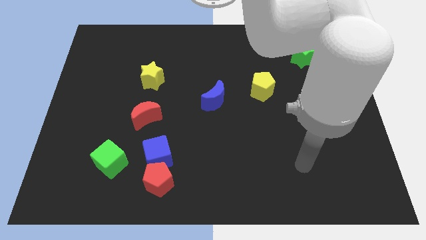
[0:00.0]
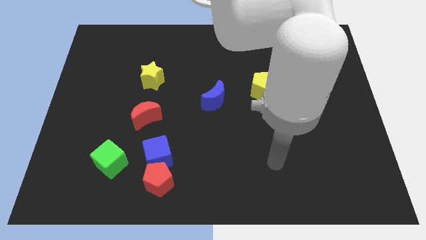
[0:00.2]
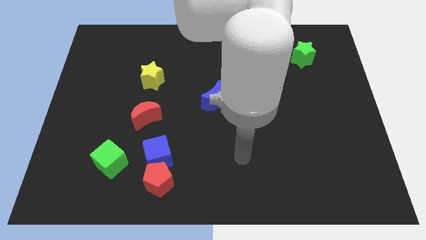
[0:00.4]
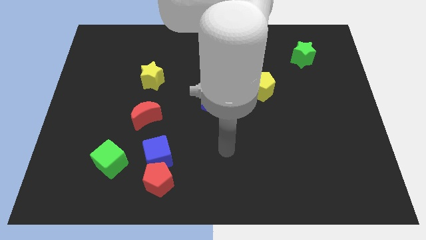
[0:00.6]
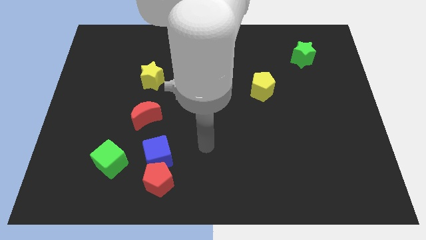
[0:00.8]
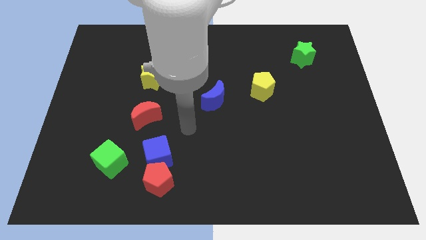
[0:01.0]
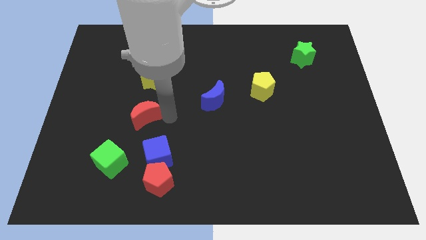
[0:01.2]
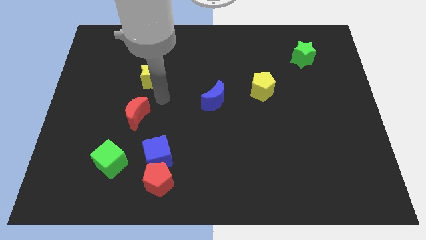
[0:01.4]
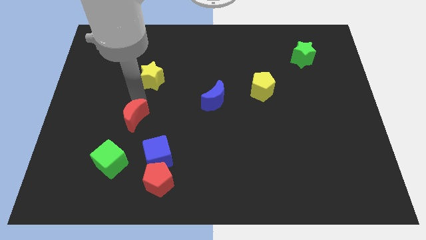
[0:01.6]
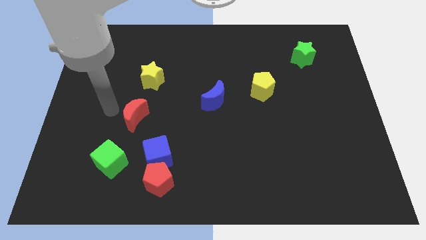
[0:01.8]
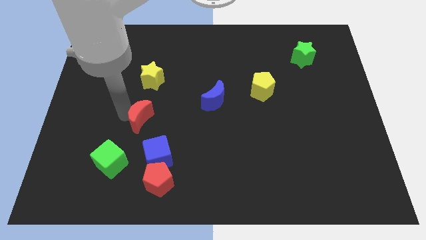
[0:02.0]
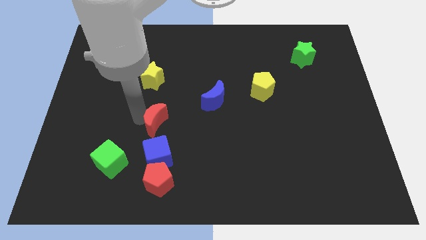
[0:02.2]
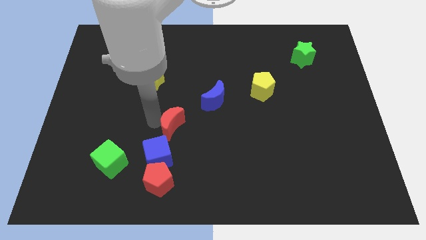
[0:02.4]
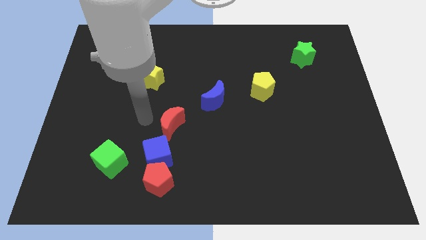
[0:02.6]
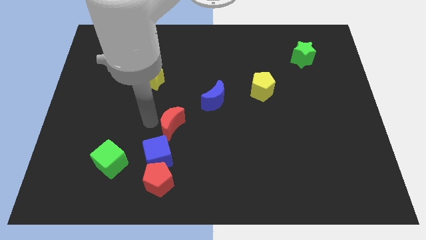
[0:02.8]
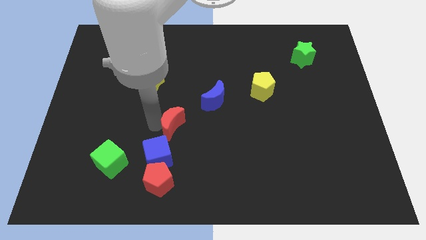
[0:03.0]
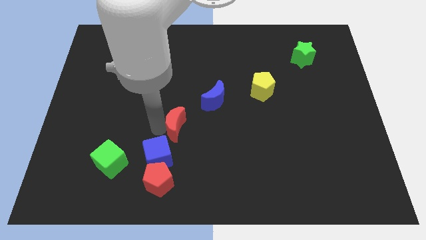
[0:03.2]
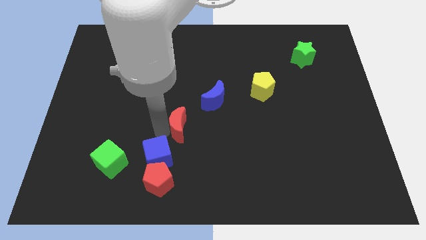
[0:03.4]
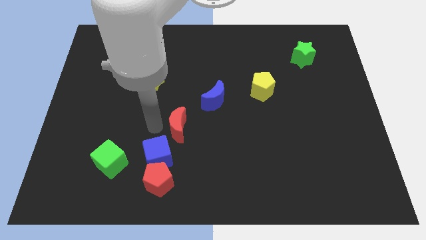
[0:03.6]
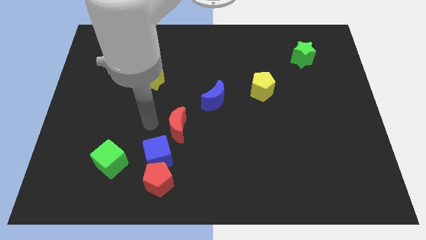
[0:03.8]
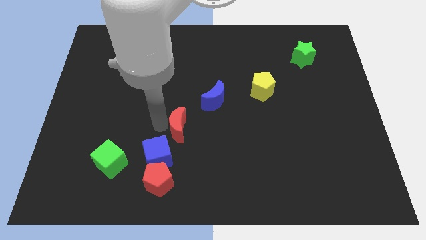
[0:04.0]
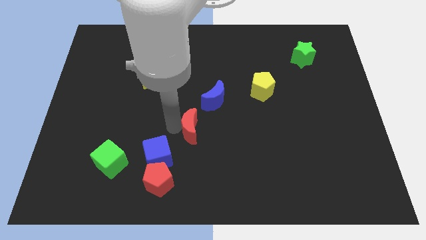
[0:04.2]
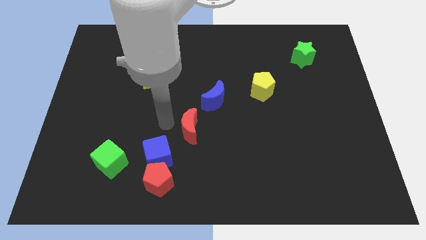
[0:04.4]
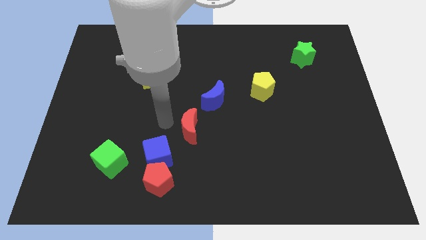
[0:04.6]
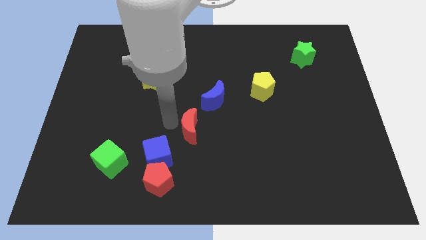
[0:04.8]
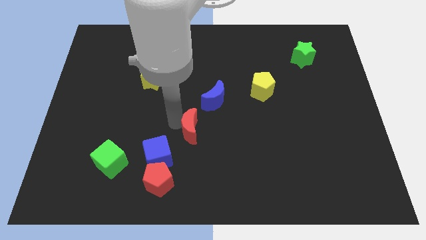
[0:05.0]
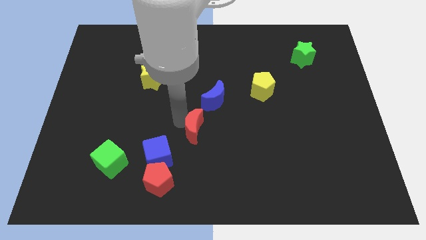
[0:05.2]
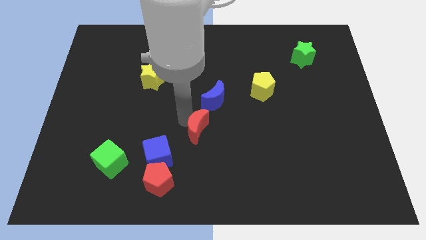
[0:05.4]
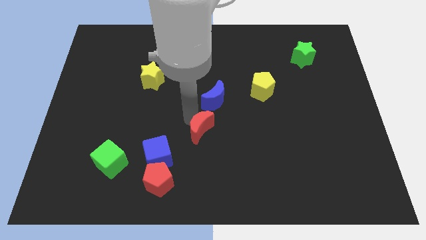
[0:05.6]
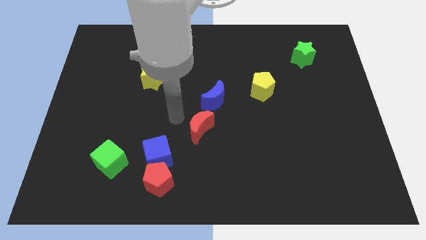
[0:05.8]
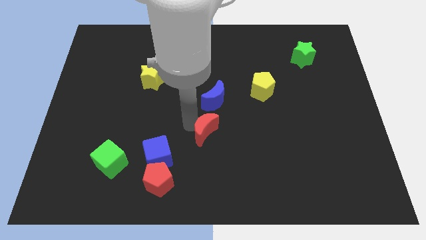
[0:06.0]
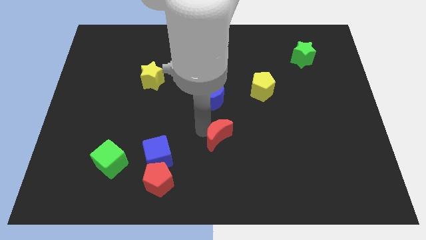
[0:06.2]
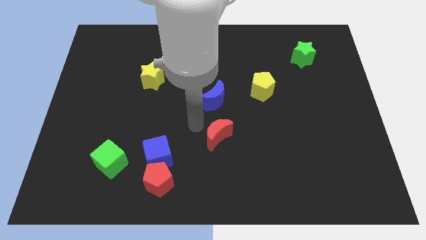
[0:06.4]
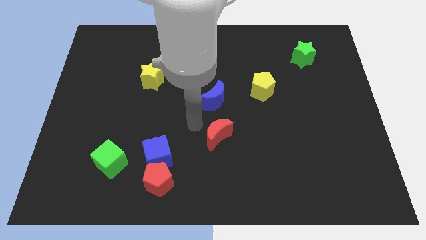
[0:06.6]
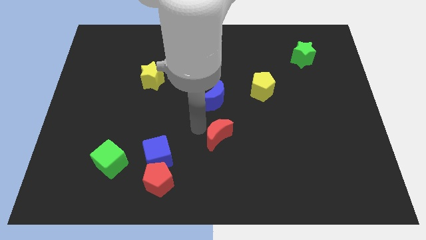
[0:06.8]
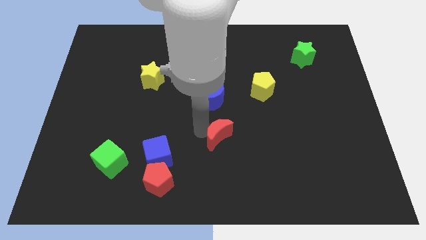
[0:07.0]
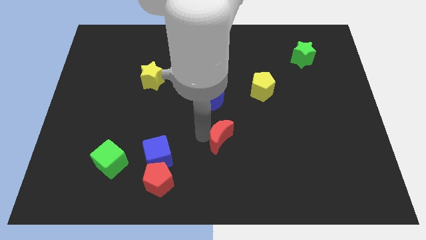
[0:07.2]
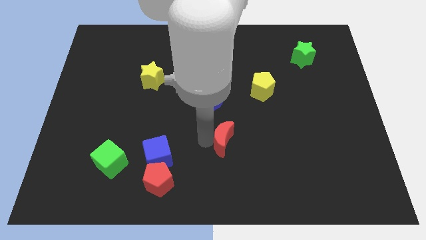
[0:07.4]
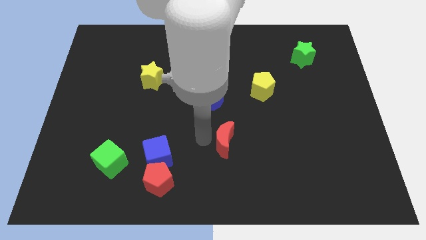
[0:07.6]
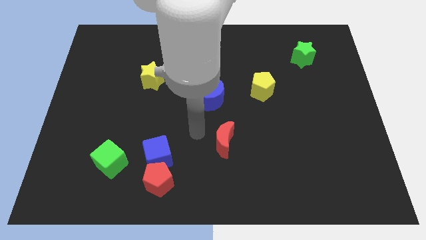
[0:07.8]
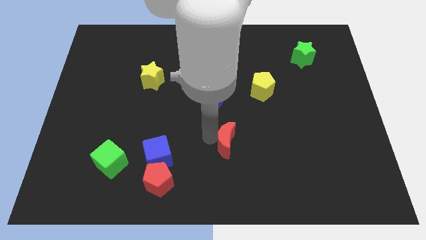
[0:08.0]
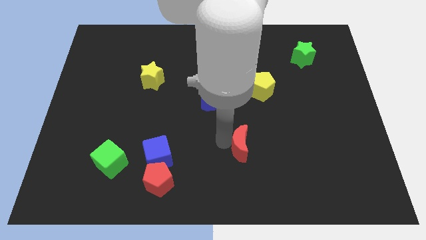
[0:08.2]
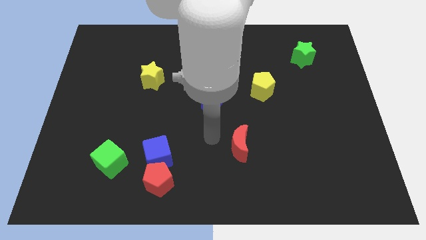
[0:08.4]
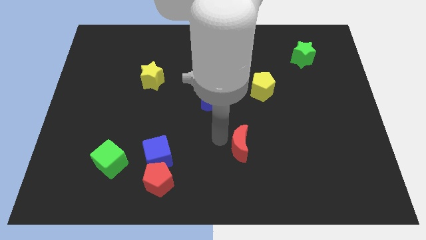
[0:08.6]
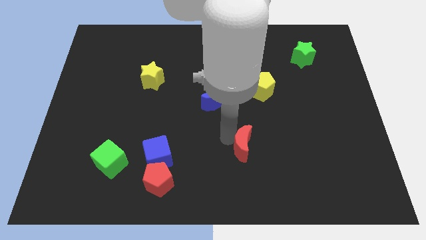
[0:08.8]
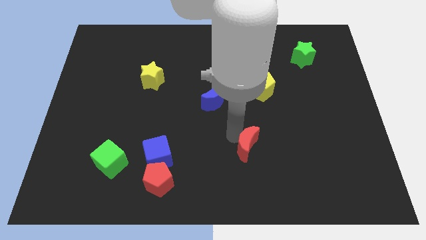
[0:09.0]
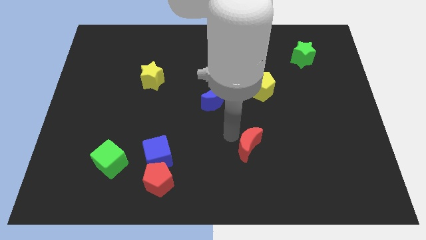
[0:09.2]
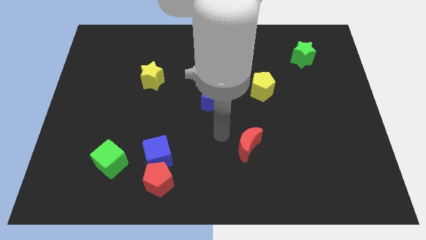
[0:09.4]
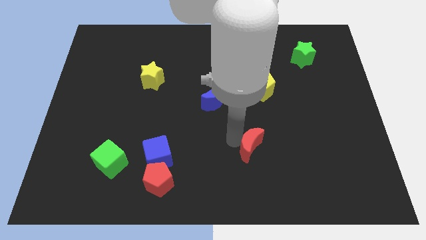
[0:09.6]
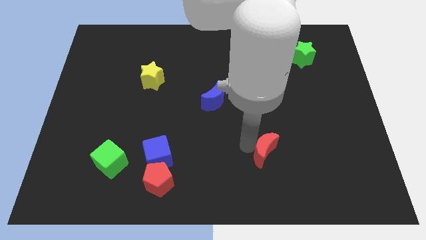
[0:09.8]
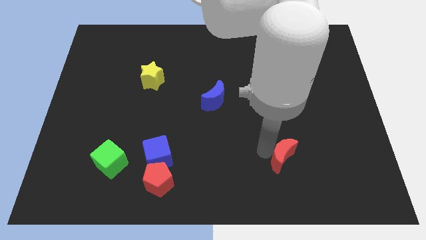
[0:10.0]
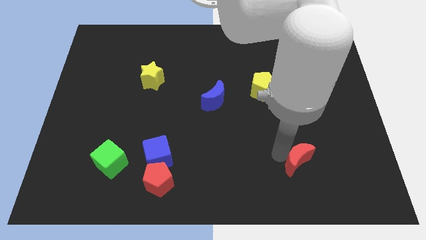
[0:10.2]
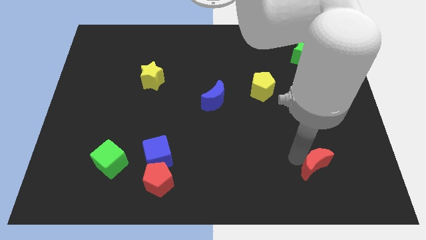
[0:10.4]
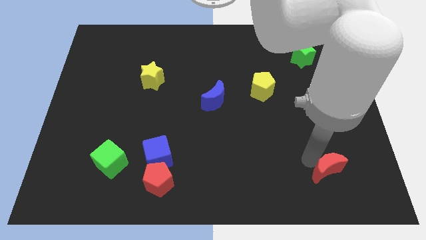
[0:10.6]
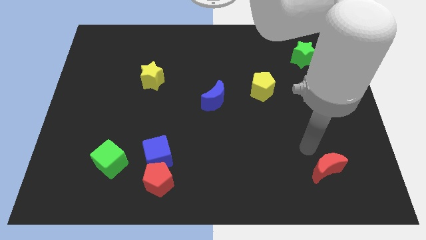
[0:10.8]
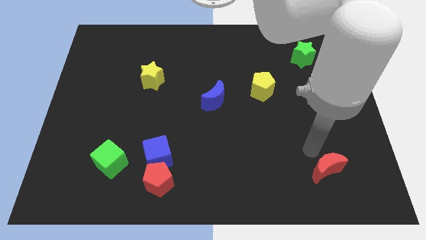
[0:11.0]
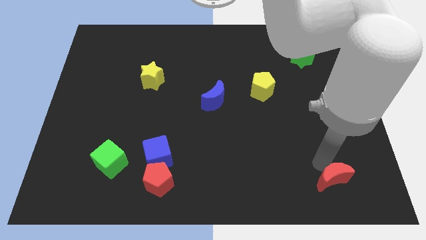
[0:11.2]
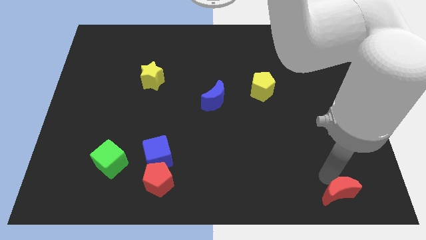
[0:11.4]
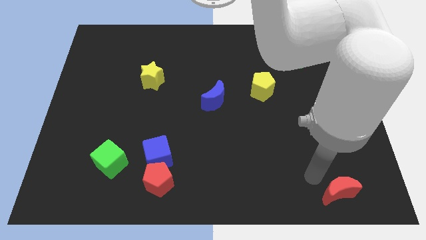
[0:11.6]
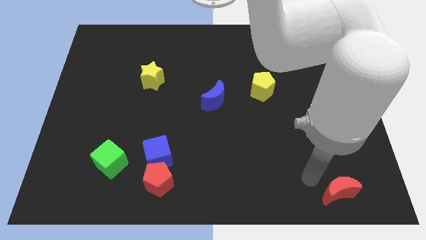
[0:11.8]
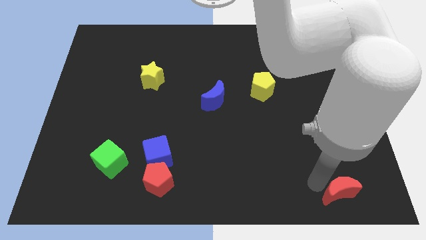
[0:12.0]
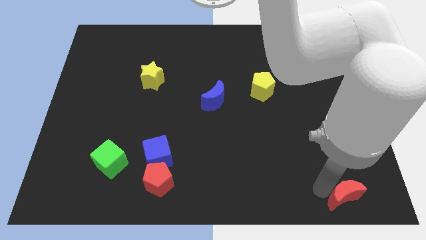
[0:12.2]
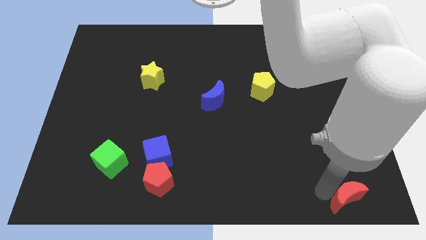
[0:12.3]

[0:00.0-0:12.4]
push the red moon to the bottom right of the board

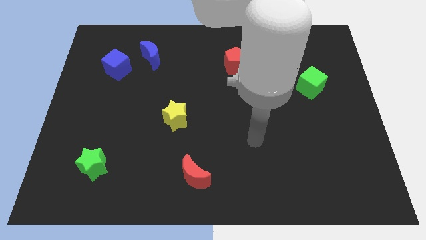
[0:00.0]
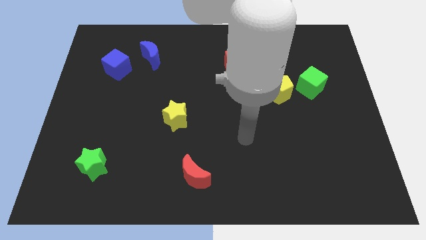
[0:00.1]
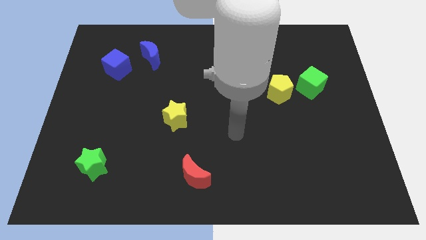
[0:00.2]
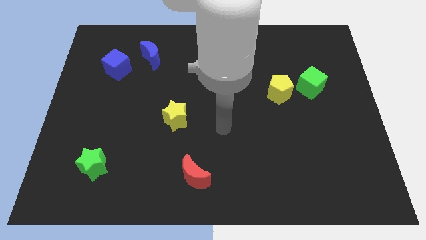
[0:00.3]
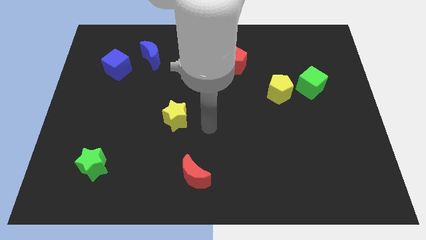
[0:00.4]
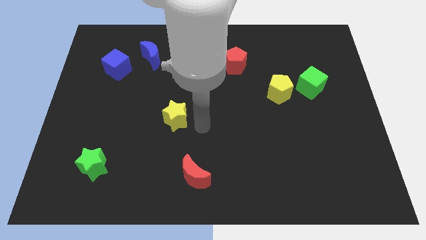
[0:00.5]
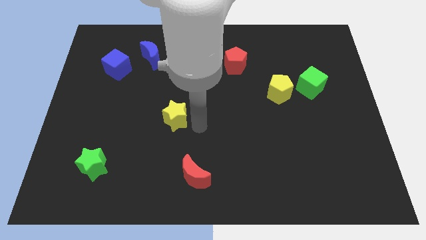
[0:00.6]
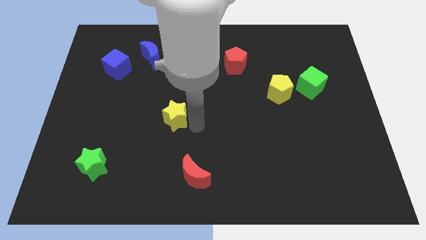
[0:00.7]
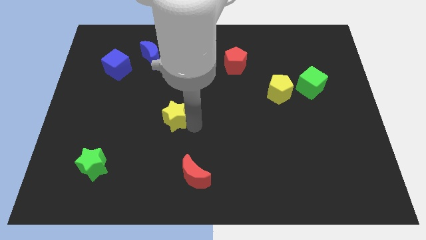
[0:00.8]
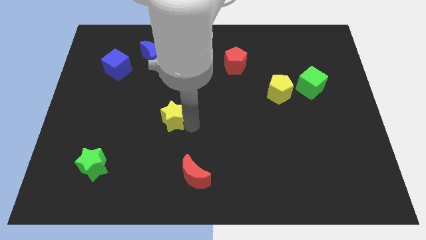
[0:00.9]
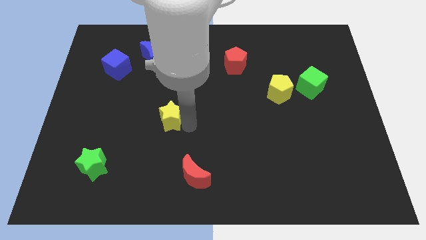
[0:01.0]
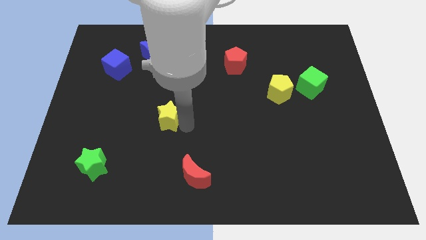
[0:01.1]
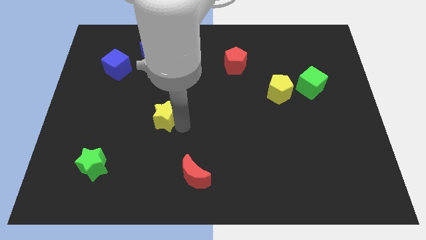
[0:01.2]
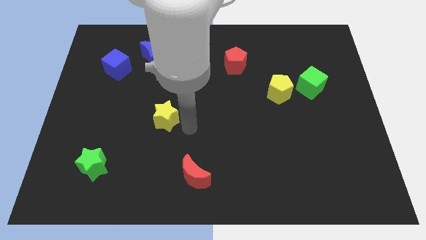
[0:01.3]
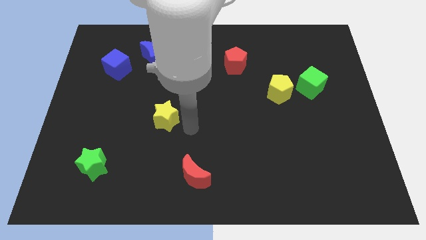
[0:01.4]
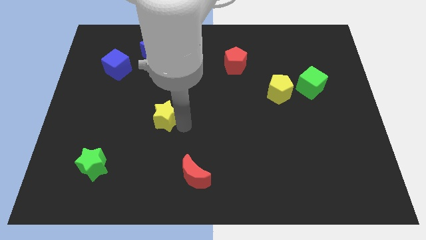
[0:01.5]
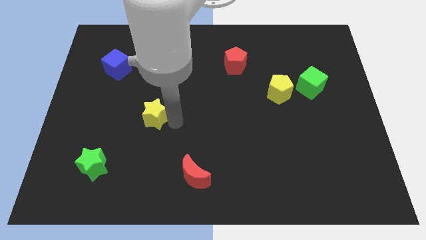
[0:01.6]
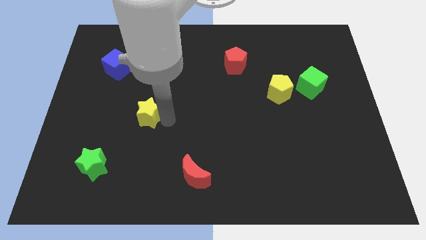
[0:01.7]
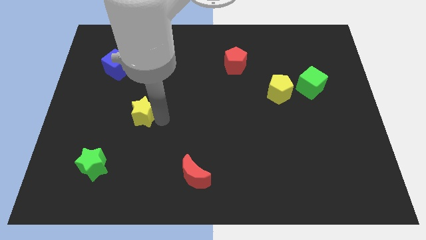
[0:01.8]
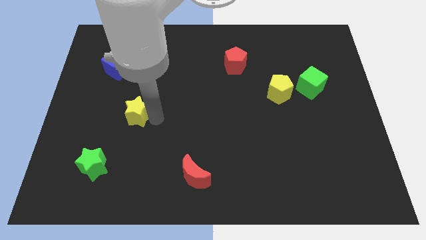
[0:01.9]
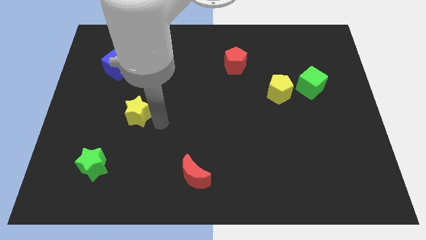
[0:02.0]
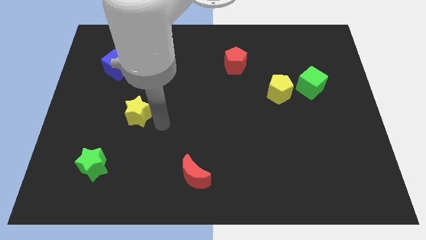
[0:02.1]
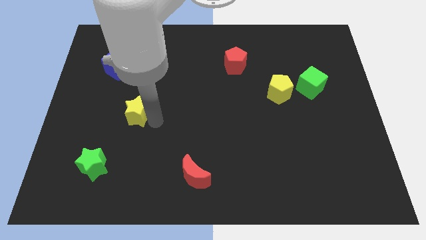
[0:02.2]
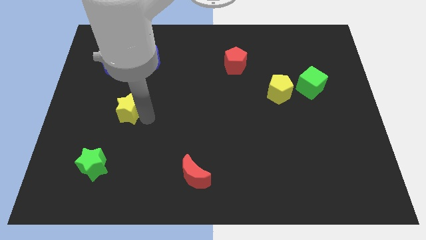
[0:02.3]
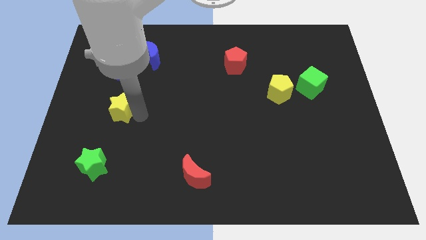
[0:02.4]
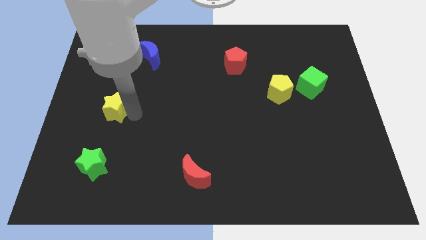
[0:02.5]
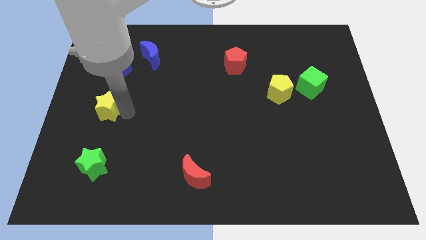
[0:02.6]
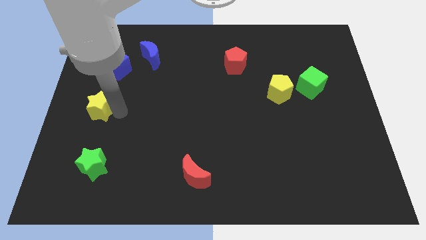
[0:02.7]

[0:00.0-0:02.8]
slide the yellow star to the left side of the board
